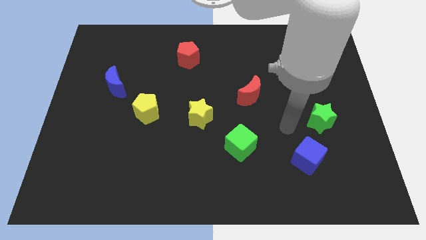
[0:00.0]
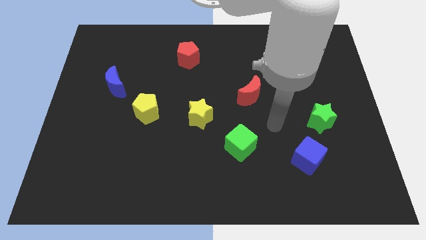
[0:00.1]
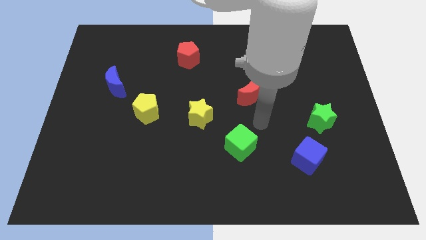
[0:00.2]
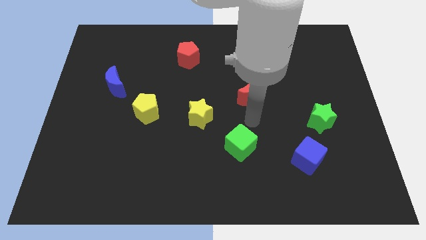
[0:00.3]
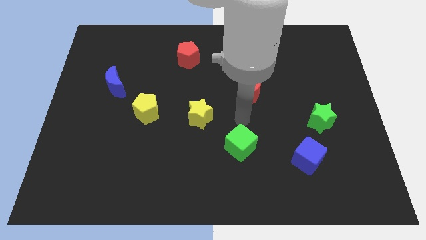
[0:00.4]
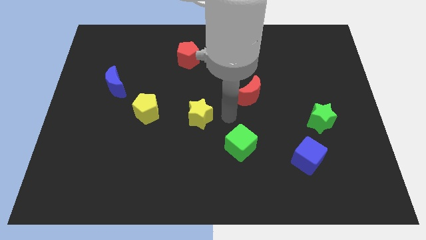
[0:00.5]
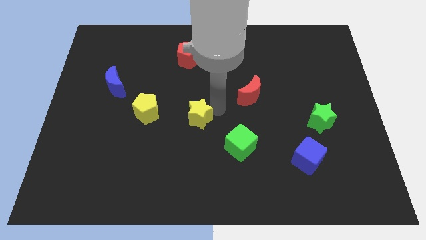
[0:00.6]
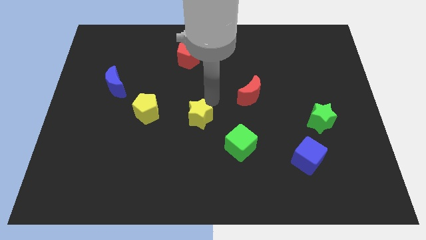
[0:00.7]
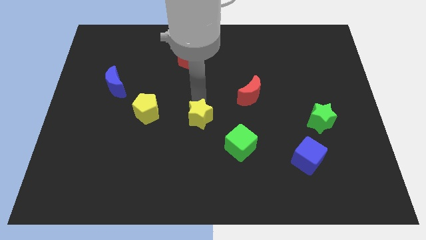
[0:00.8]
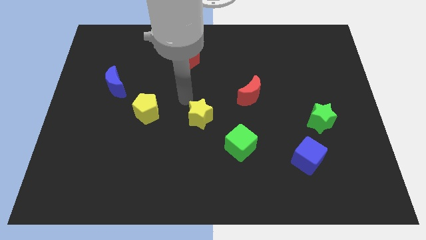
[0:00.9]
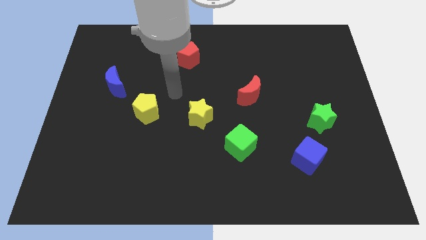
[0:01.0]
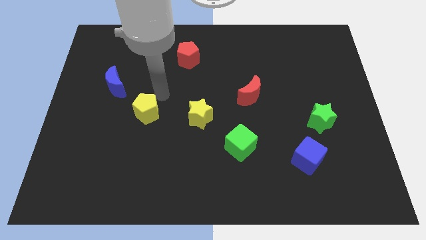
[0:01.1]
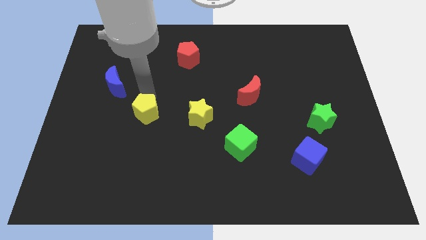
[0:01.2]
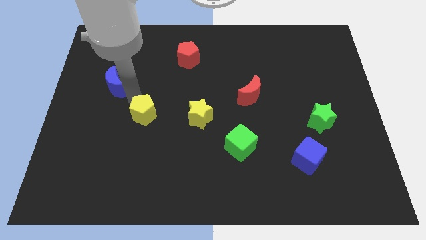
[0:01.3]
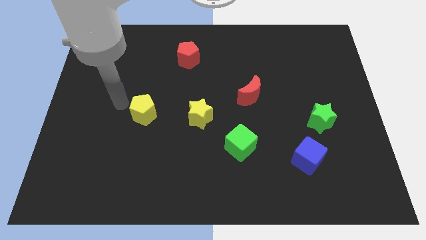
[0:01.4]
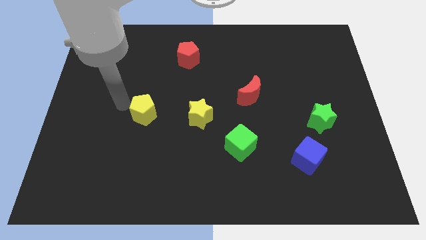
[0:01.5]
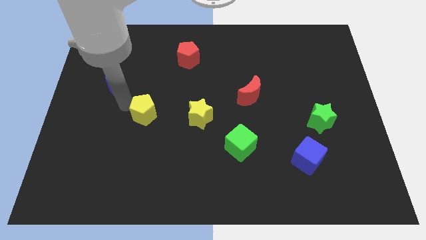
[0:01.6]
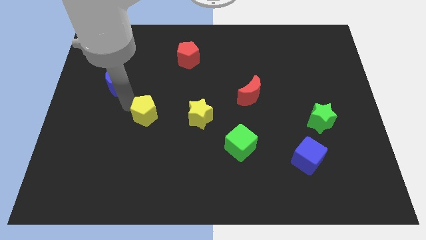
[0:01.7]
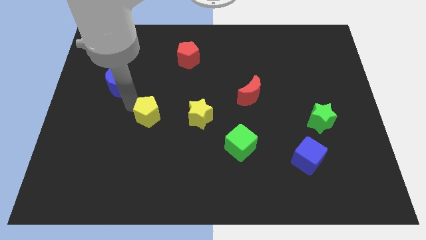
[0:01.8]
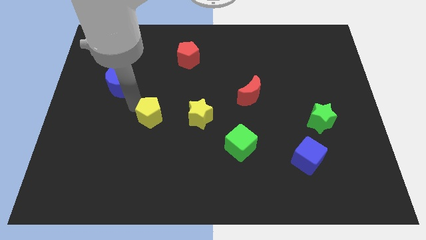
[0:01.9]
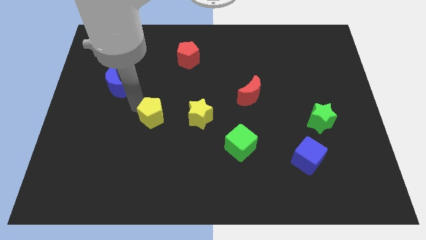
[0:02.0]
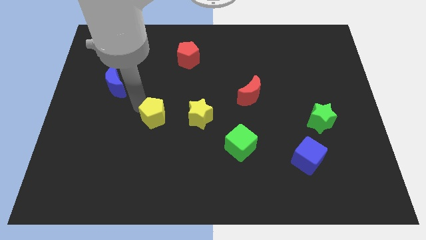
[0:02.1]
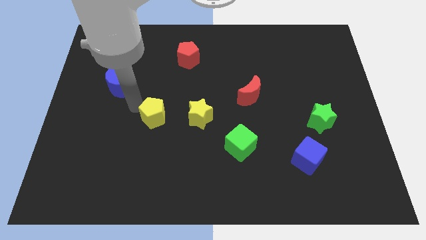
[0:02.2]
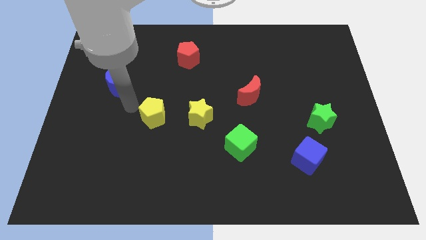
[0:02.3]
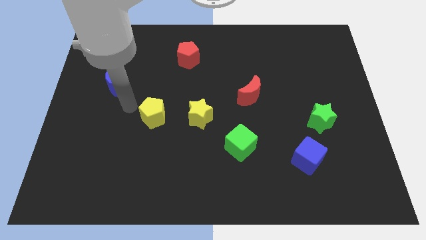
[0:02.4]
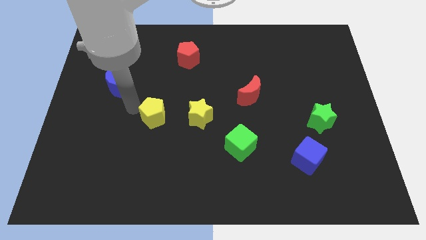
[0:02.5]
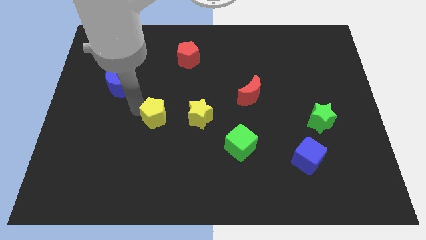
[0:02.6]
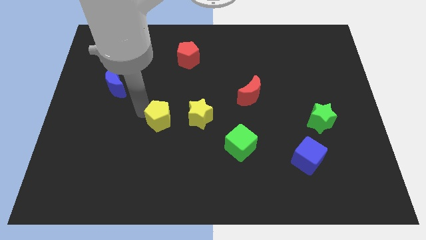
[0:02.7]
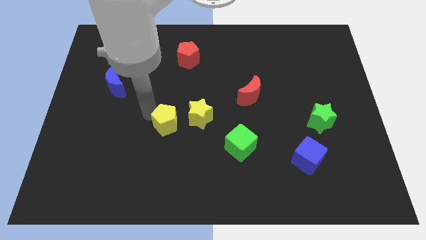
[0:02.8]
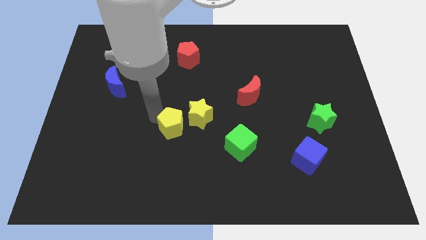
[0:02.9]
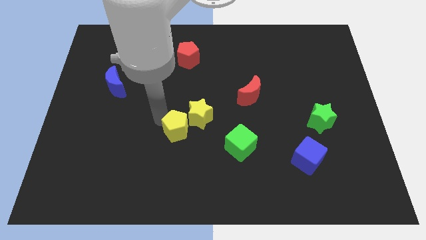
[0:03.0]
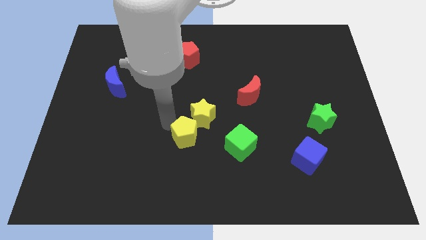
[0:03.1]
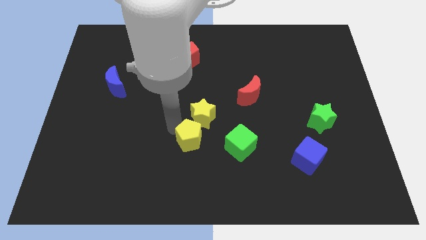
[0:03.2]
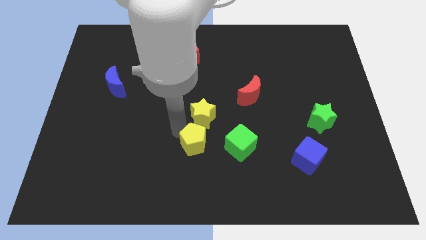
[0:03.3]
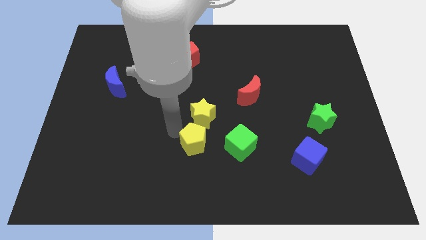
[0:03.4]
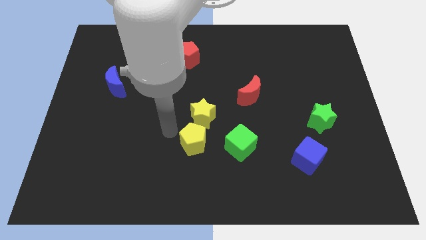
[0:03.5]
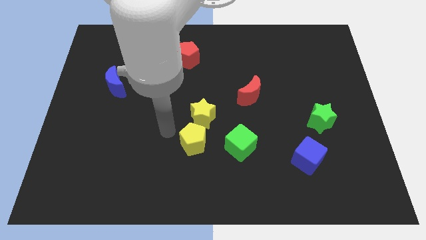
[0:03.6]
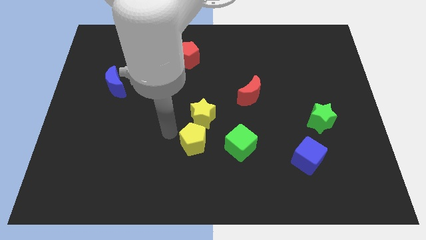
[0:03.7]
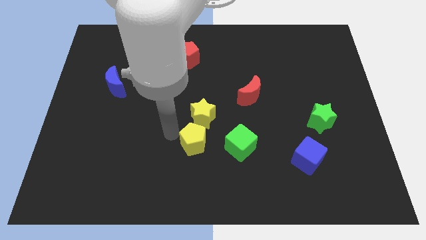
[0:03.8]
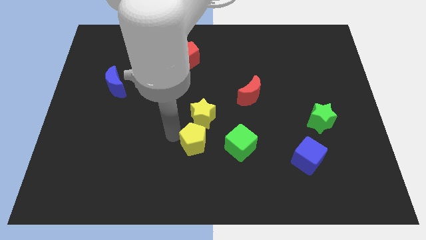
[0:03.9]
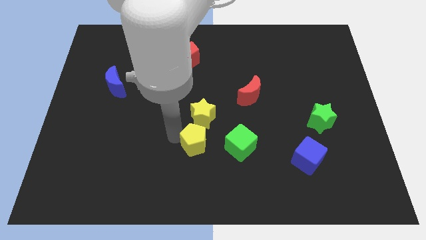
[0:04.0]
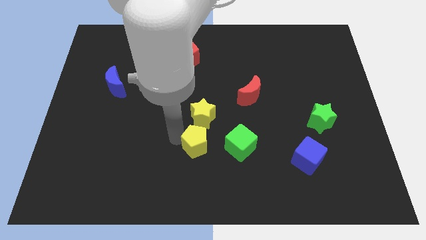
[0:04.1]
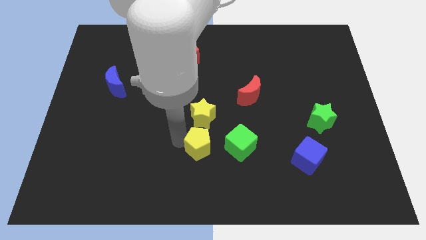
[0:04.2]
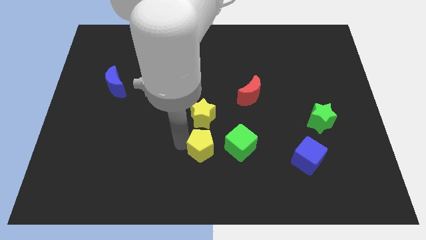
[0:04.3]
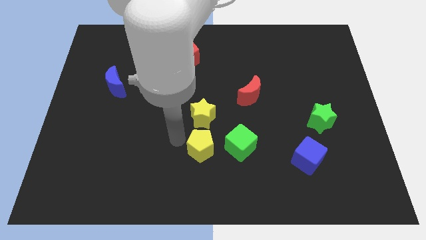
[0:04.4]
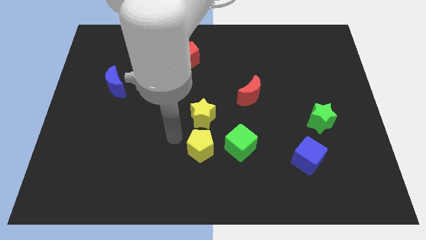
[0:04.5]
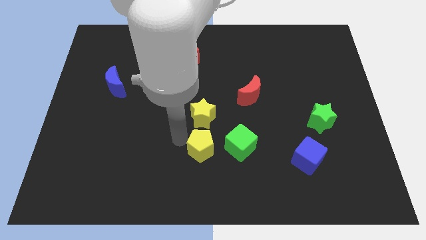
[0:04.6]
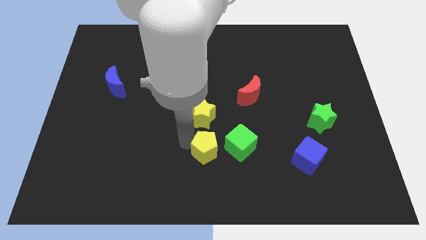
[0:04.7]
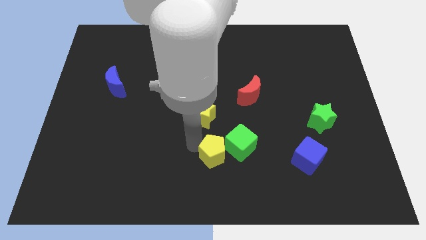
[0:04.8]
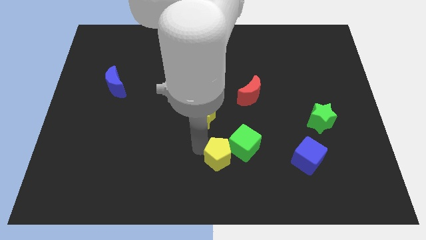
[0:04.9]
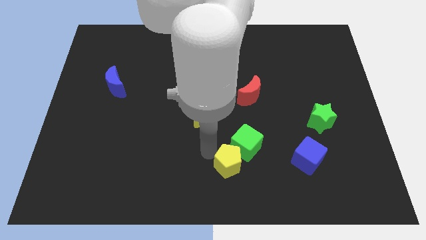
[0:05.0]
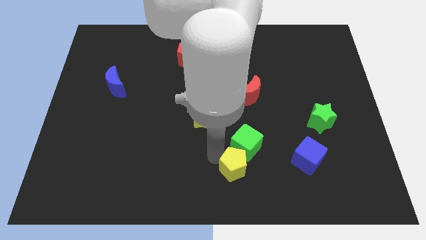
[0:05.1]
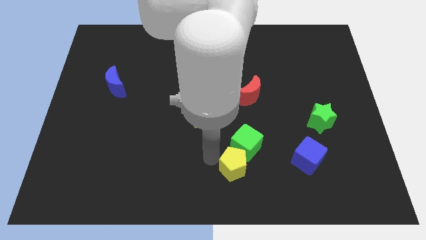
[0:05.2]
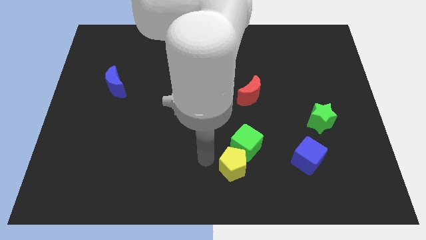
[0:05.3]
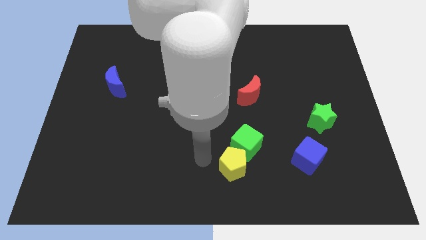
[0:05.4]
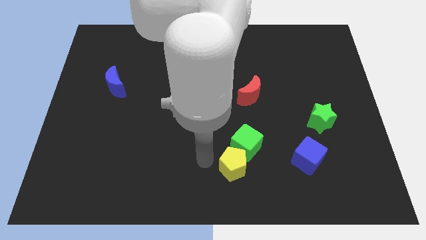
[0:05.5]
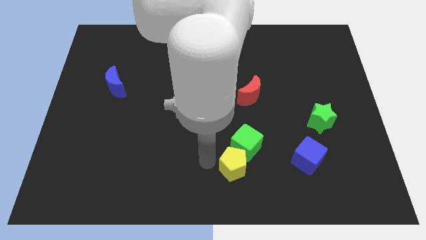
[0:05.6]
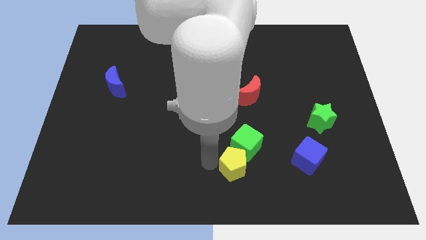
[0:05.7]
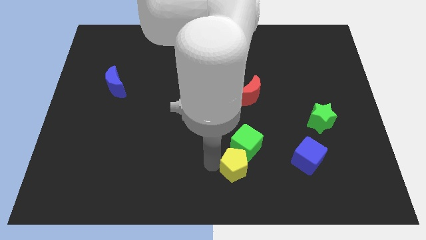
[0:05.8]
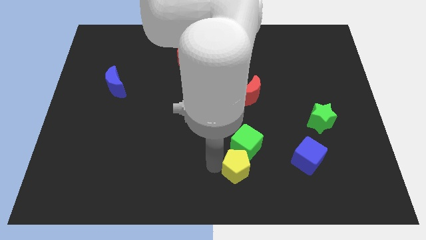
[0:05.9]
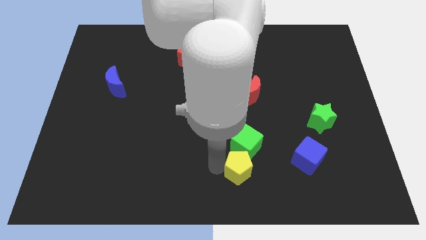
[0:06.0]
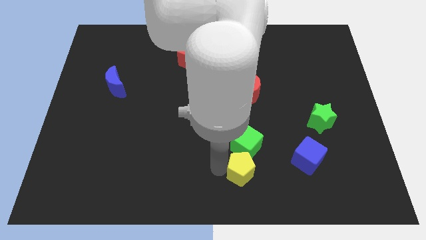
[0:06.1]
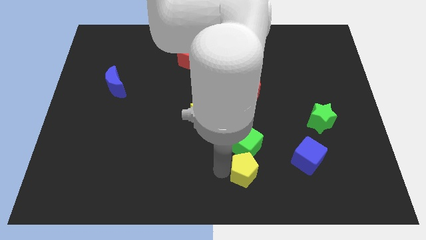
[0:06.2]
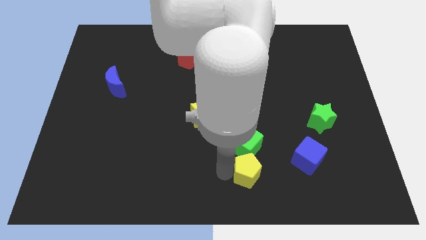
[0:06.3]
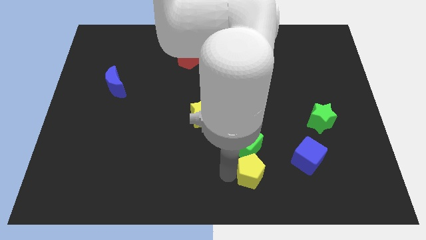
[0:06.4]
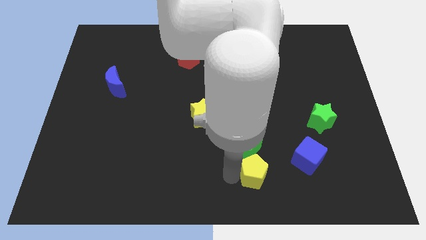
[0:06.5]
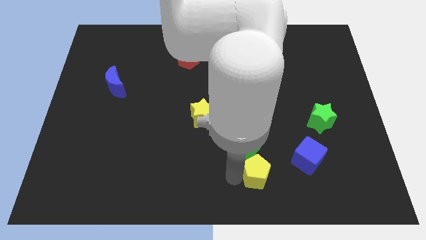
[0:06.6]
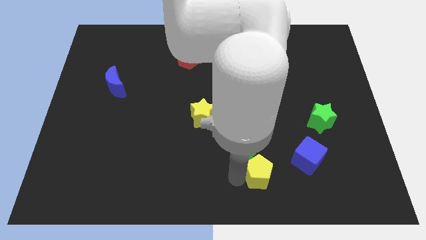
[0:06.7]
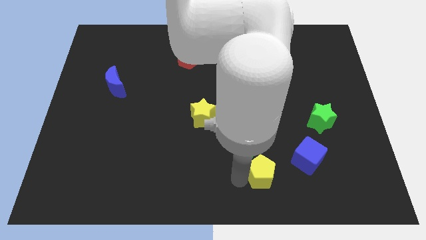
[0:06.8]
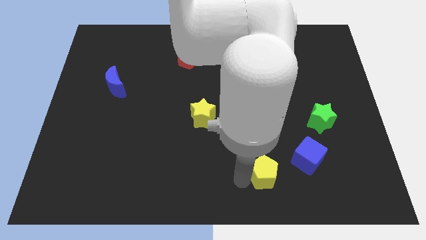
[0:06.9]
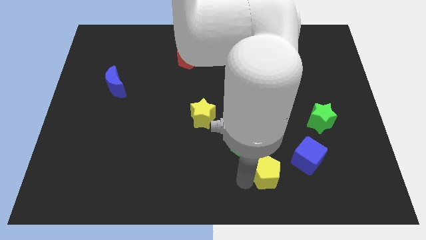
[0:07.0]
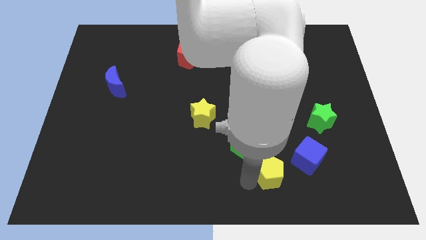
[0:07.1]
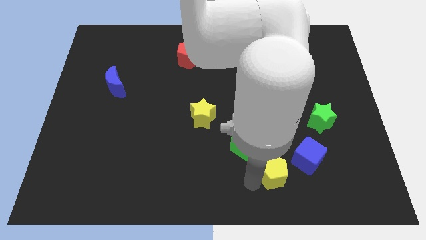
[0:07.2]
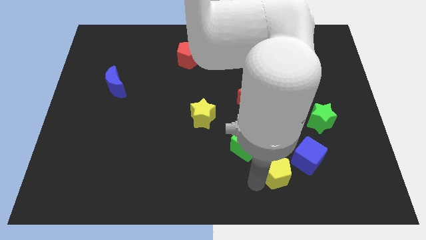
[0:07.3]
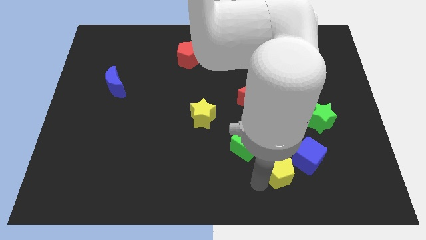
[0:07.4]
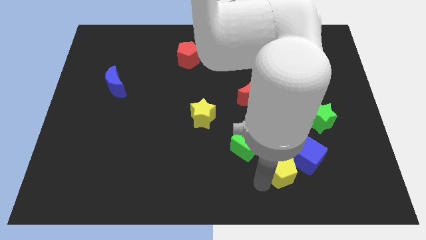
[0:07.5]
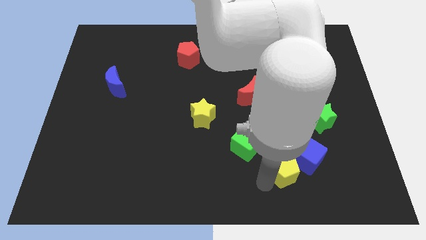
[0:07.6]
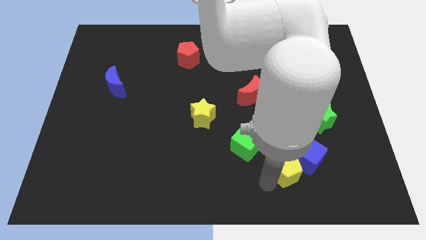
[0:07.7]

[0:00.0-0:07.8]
put the yellow pentagon towards the blue cube
